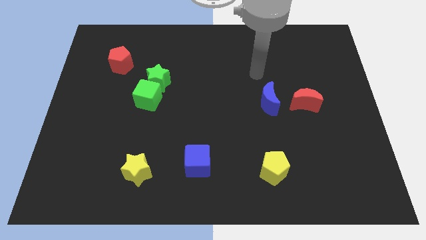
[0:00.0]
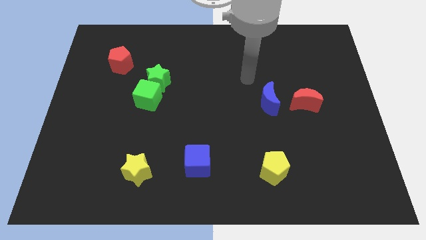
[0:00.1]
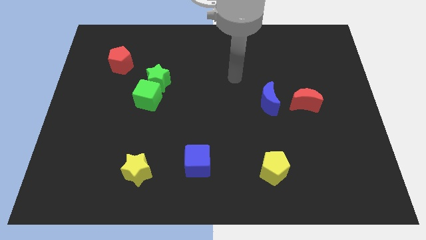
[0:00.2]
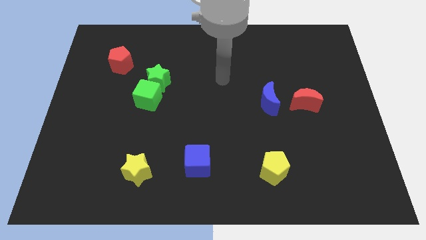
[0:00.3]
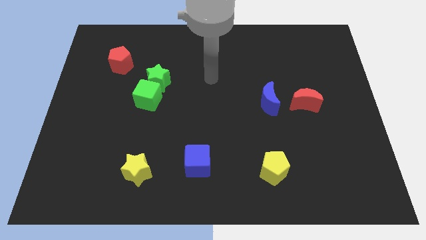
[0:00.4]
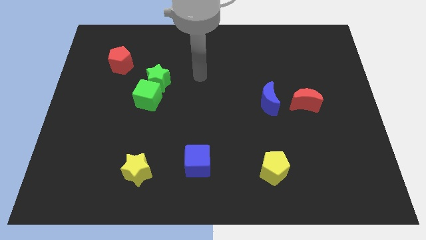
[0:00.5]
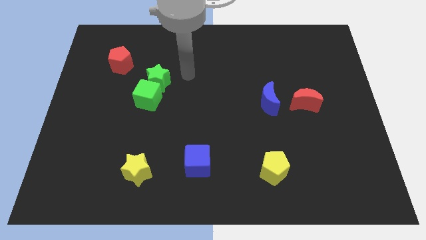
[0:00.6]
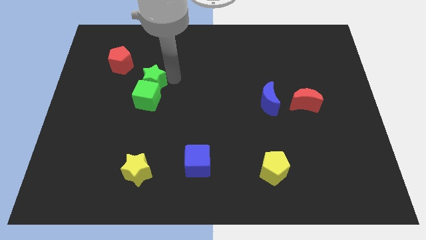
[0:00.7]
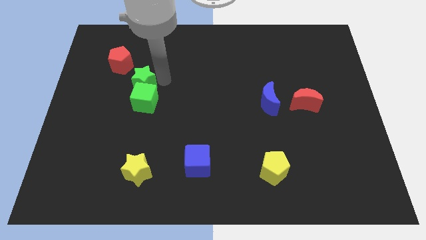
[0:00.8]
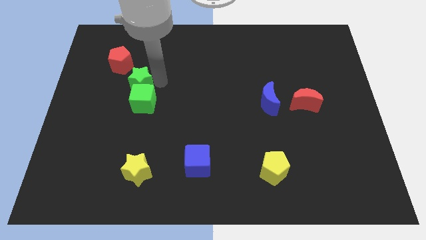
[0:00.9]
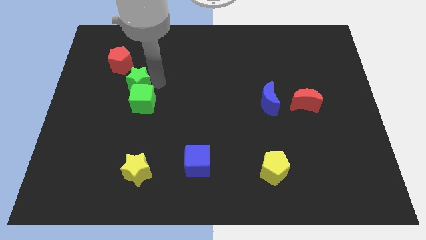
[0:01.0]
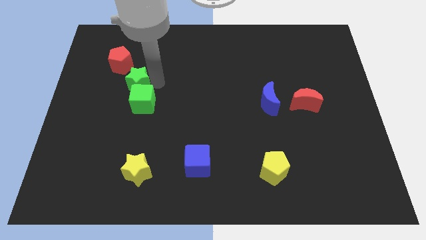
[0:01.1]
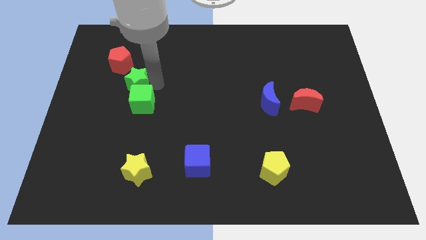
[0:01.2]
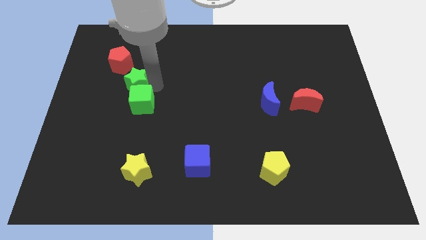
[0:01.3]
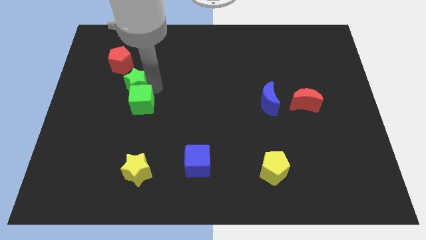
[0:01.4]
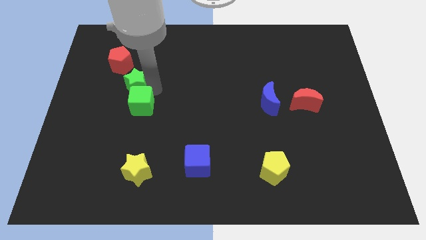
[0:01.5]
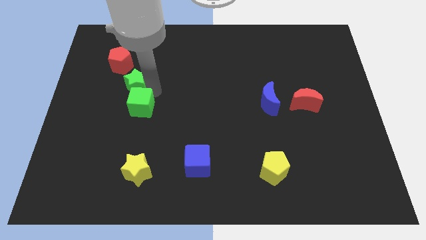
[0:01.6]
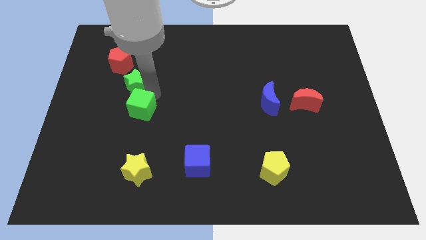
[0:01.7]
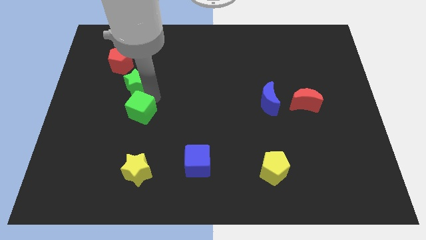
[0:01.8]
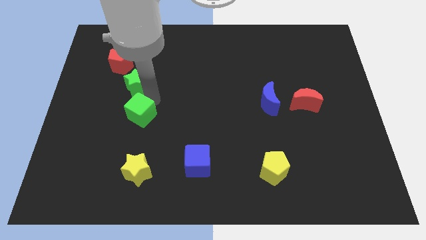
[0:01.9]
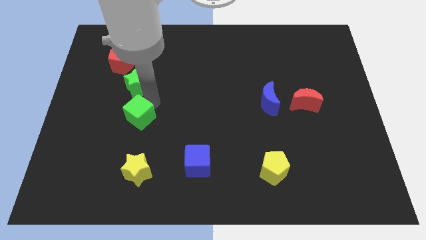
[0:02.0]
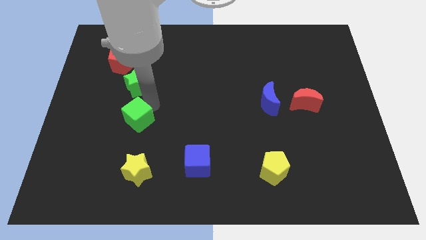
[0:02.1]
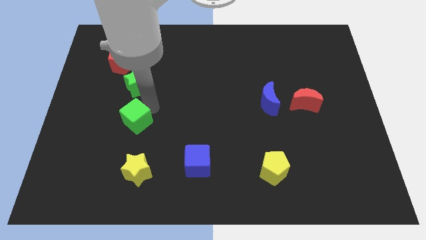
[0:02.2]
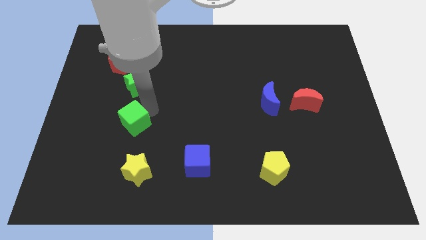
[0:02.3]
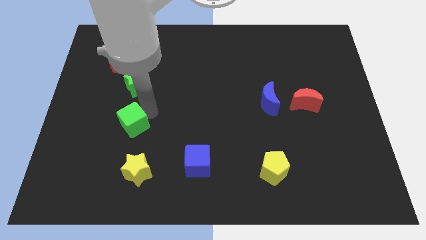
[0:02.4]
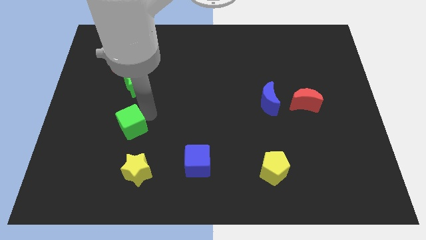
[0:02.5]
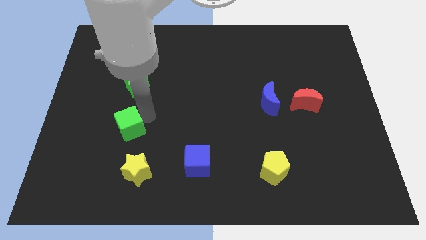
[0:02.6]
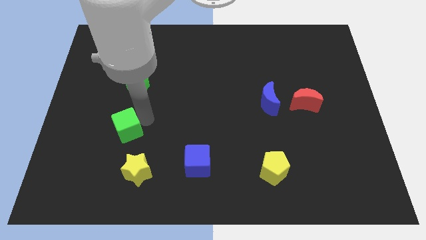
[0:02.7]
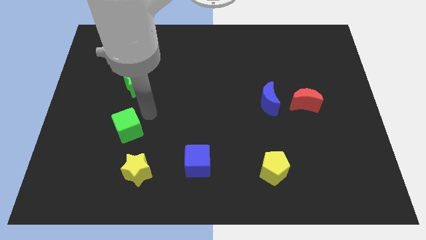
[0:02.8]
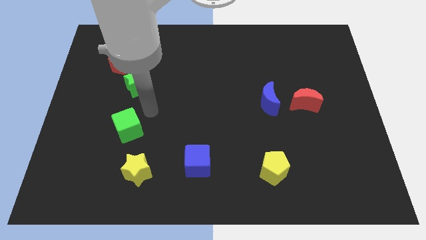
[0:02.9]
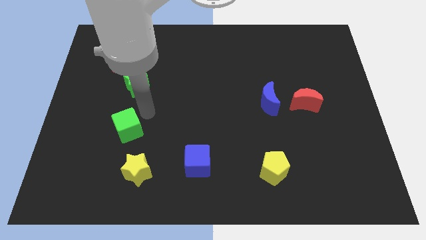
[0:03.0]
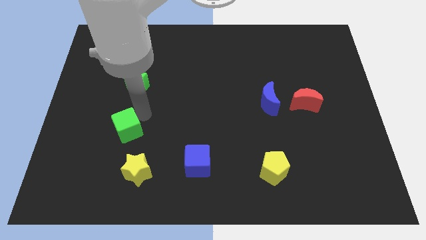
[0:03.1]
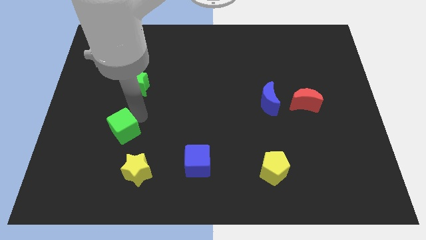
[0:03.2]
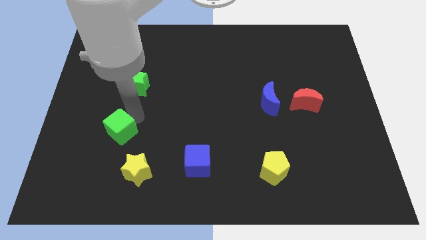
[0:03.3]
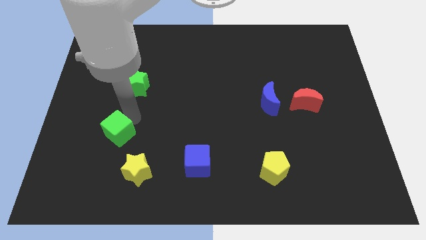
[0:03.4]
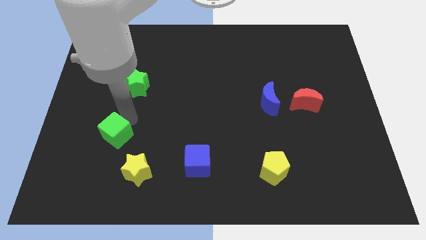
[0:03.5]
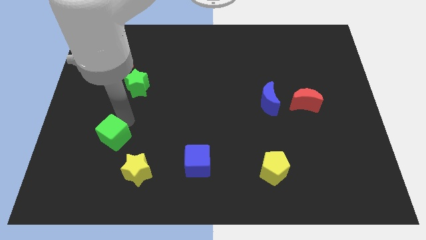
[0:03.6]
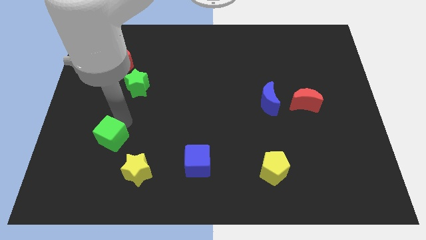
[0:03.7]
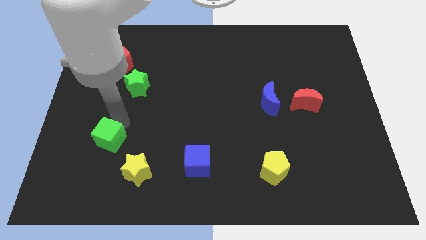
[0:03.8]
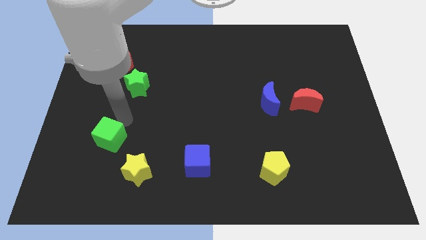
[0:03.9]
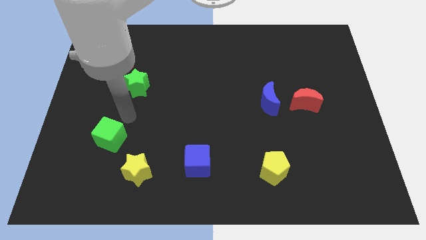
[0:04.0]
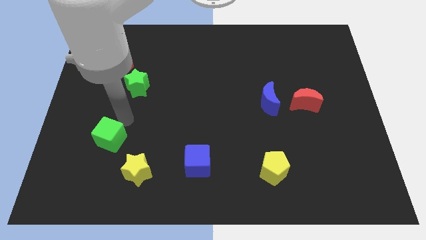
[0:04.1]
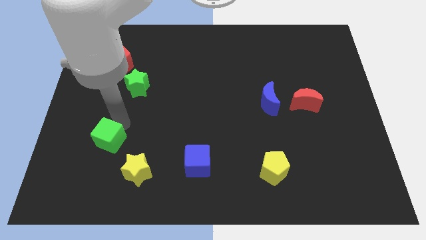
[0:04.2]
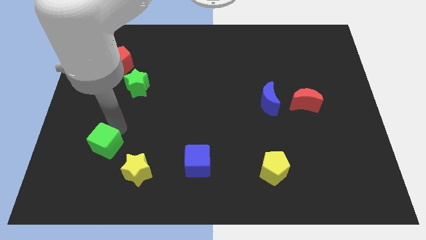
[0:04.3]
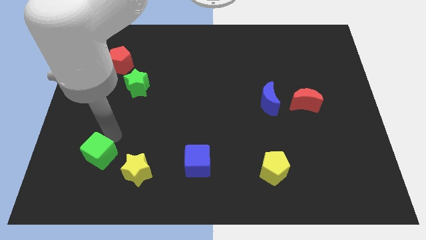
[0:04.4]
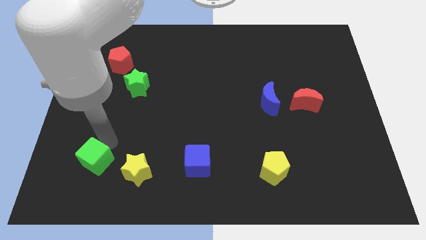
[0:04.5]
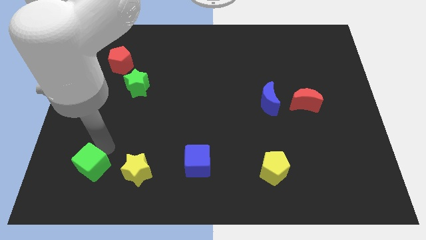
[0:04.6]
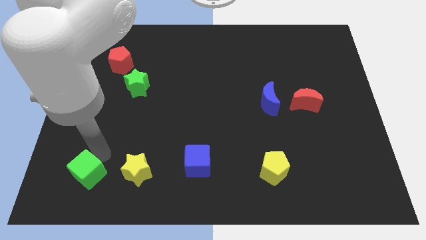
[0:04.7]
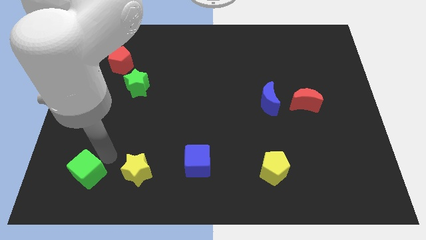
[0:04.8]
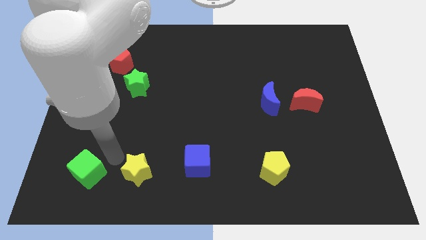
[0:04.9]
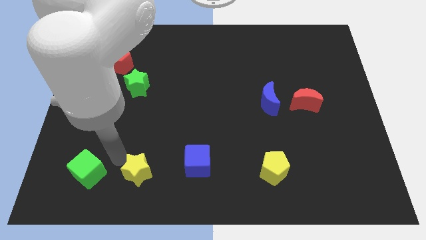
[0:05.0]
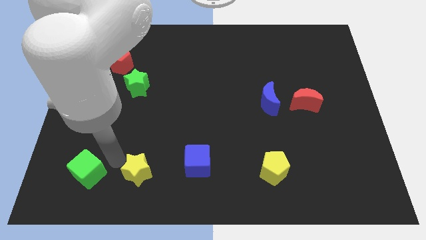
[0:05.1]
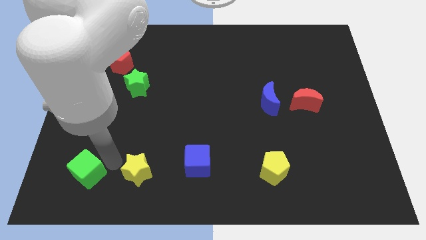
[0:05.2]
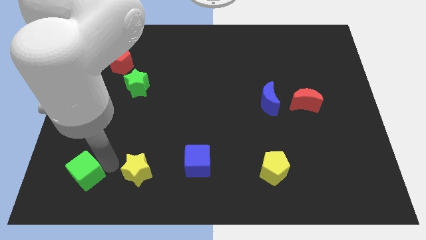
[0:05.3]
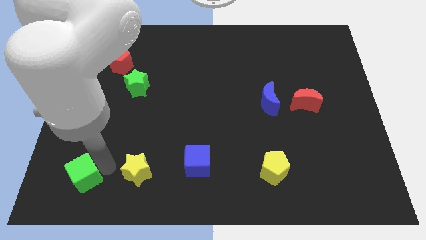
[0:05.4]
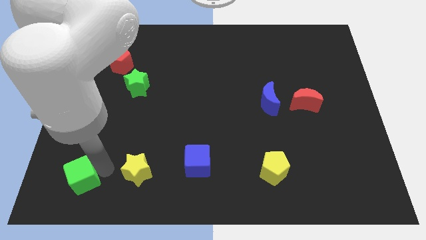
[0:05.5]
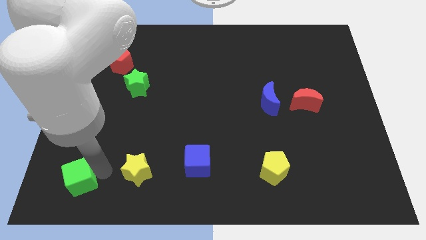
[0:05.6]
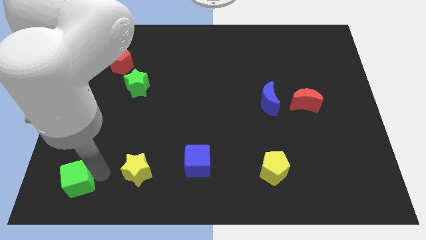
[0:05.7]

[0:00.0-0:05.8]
slide the green cube to the bottom left of the board
